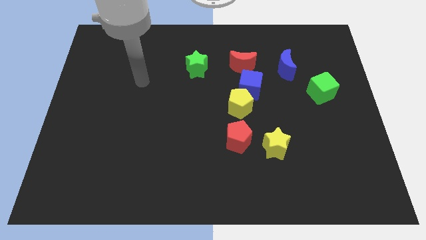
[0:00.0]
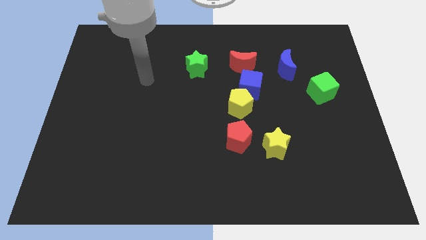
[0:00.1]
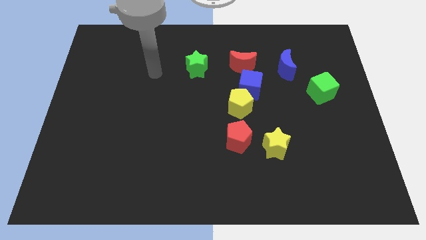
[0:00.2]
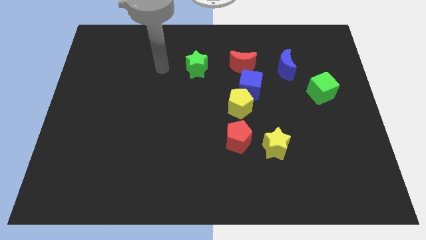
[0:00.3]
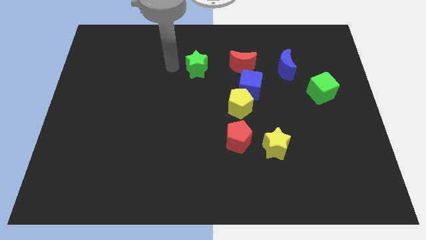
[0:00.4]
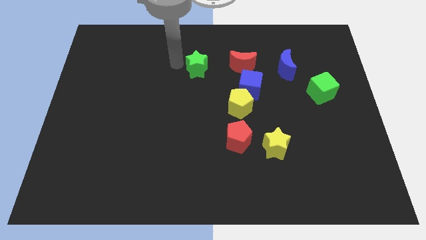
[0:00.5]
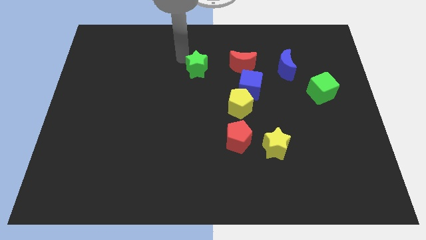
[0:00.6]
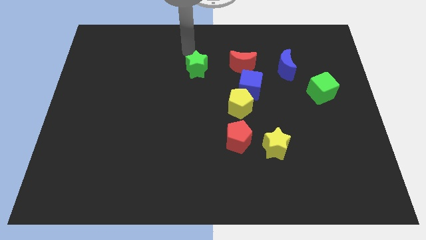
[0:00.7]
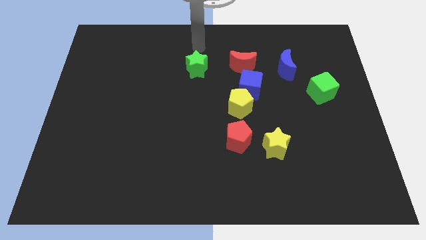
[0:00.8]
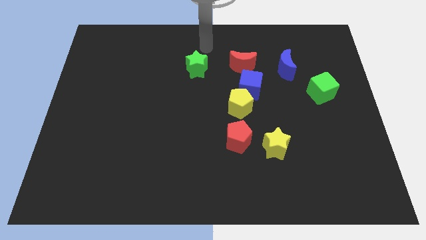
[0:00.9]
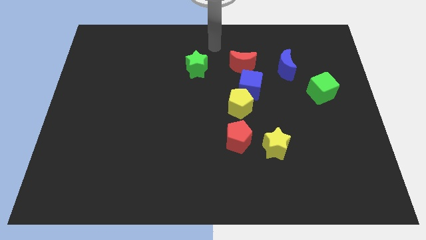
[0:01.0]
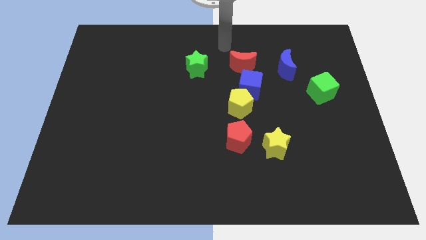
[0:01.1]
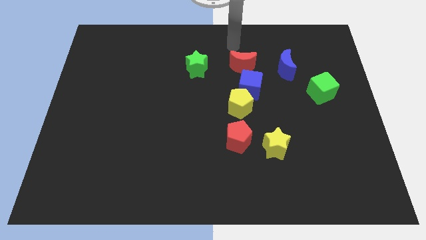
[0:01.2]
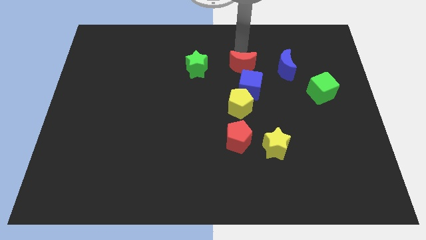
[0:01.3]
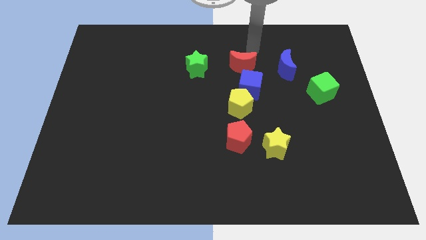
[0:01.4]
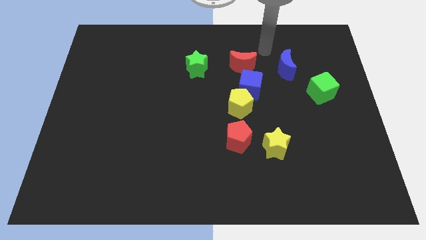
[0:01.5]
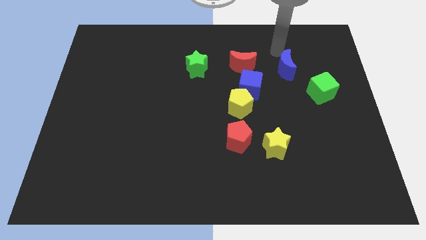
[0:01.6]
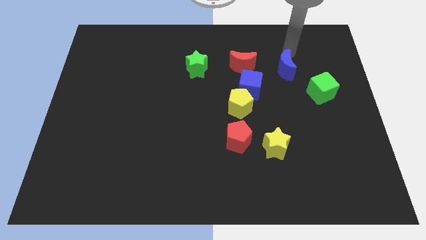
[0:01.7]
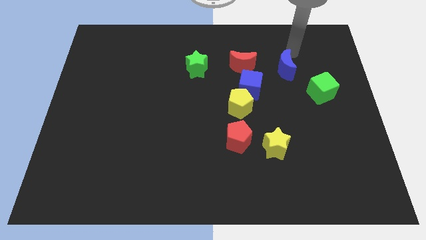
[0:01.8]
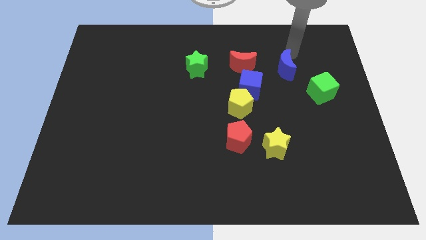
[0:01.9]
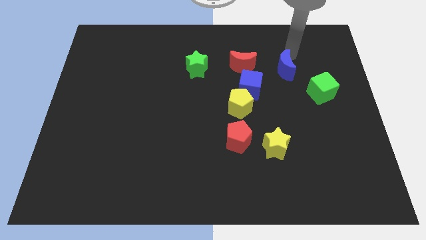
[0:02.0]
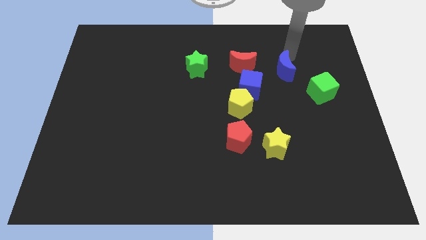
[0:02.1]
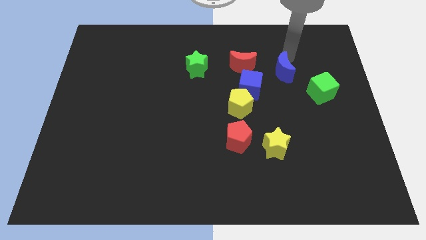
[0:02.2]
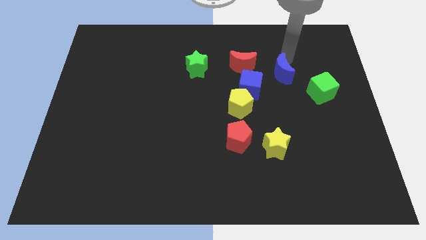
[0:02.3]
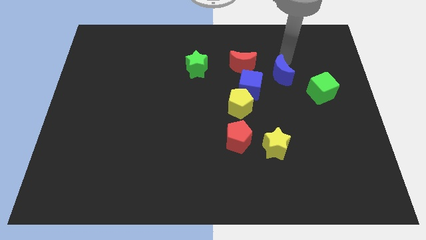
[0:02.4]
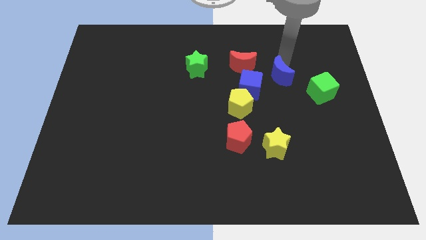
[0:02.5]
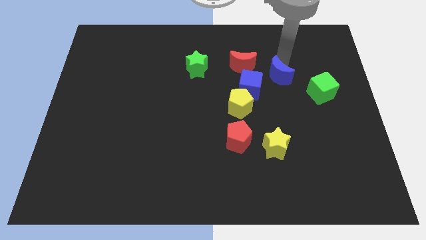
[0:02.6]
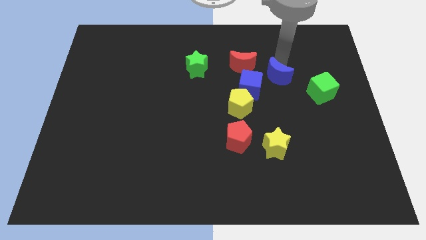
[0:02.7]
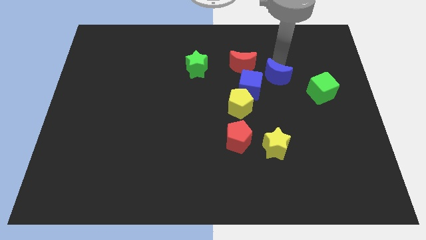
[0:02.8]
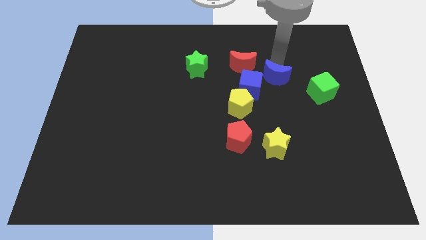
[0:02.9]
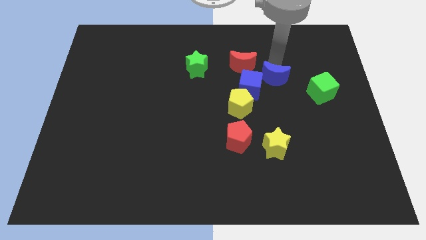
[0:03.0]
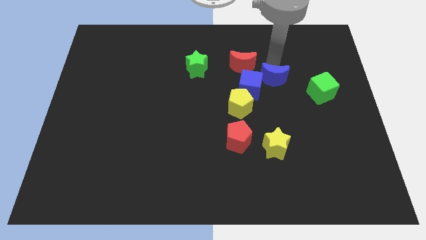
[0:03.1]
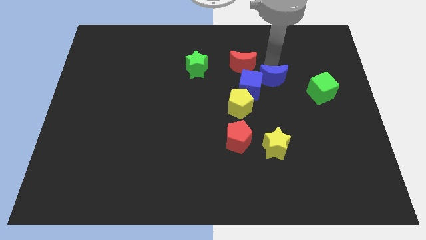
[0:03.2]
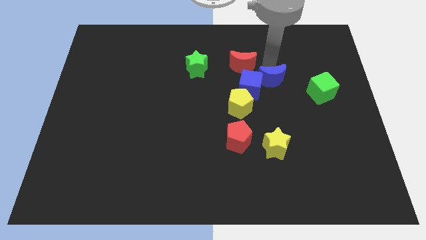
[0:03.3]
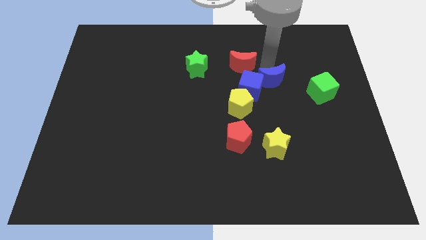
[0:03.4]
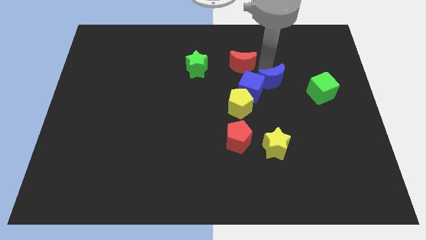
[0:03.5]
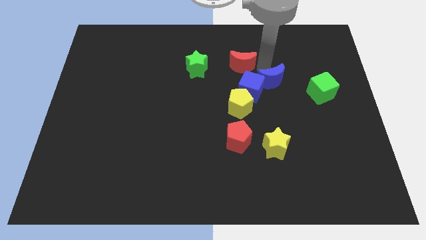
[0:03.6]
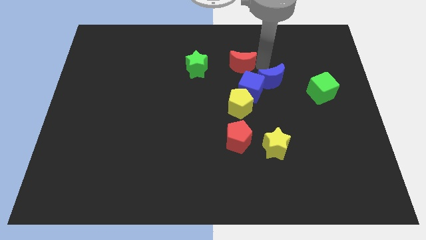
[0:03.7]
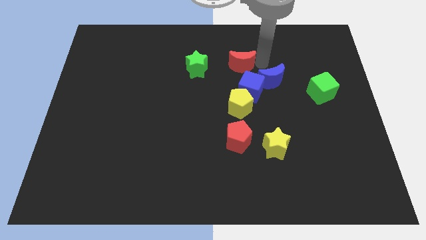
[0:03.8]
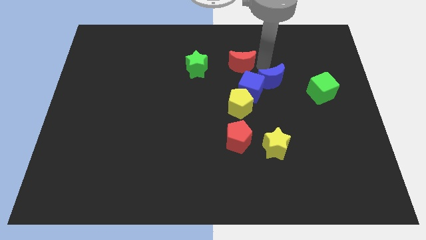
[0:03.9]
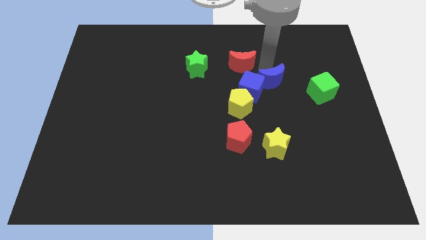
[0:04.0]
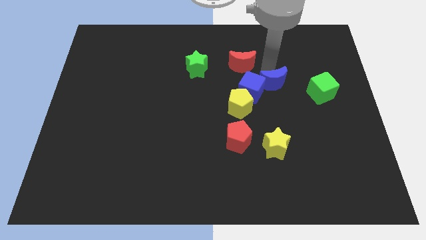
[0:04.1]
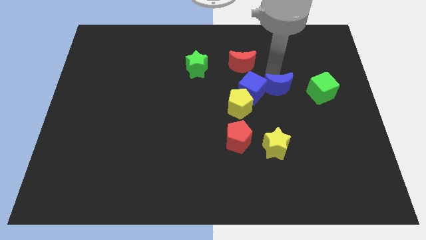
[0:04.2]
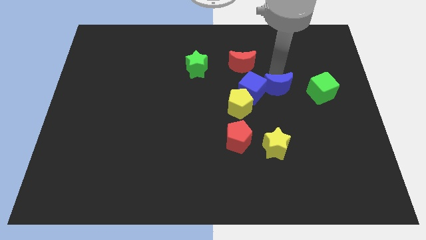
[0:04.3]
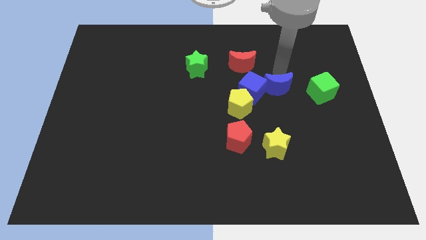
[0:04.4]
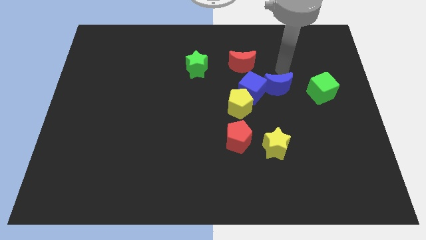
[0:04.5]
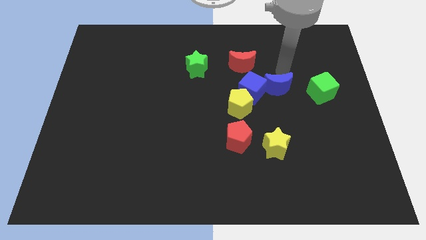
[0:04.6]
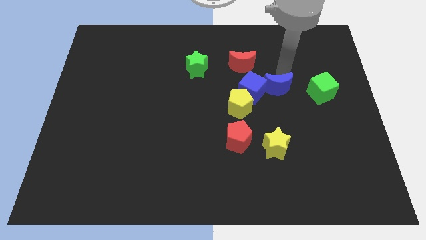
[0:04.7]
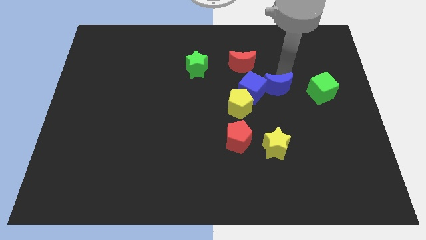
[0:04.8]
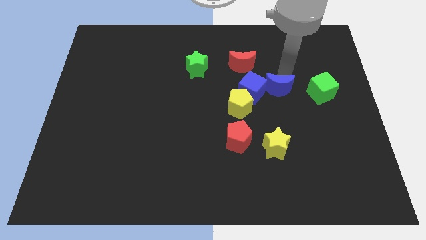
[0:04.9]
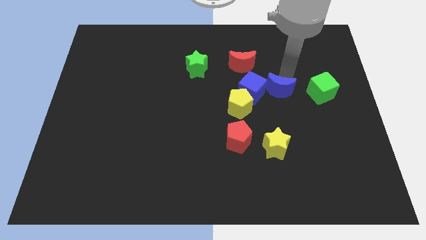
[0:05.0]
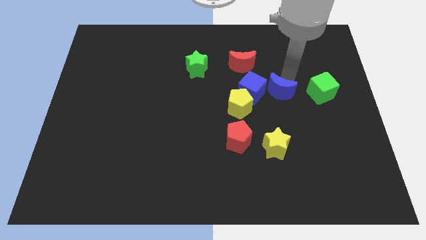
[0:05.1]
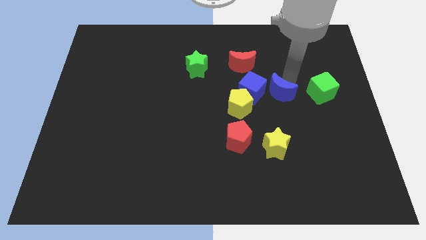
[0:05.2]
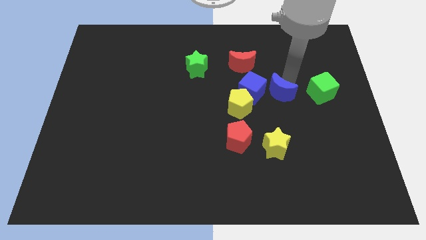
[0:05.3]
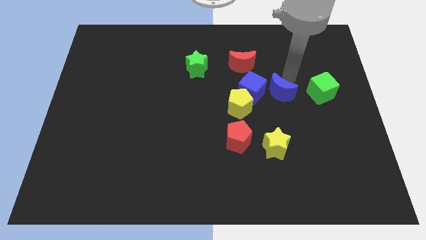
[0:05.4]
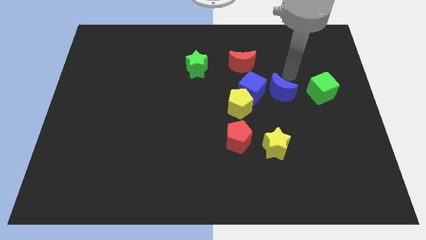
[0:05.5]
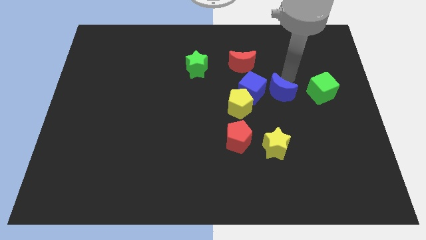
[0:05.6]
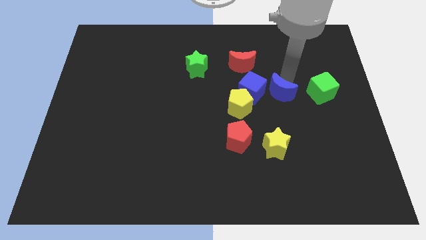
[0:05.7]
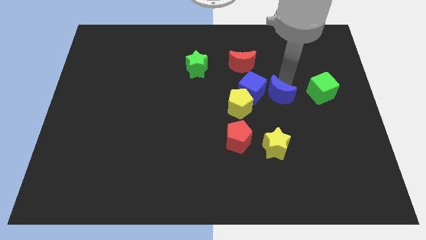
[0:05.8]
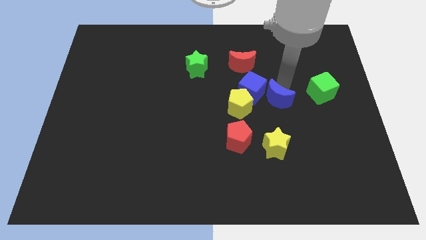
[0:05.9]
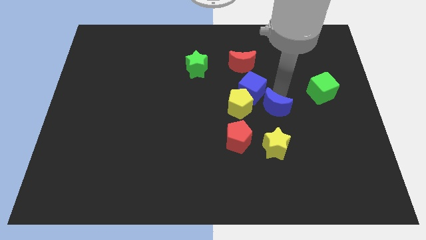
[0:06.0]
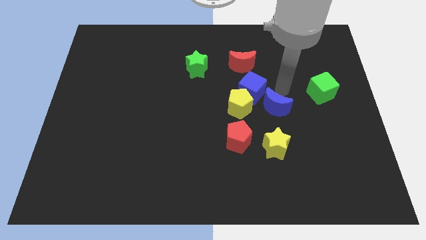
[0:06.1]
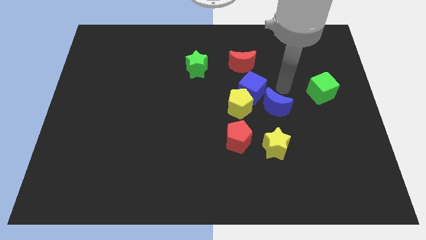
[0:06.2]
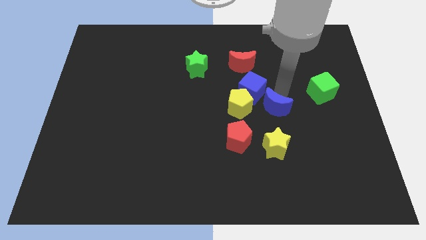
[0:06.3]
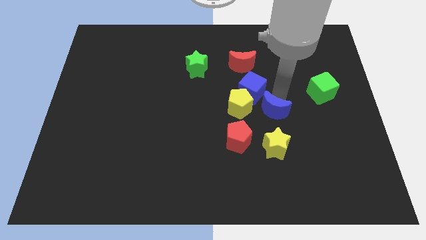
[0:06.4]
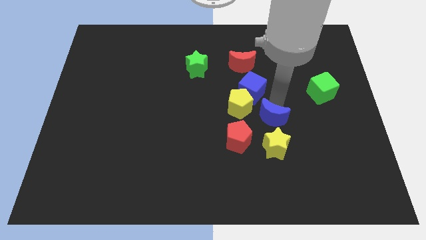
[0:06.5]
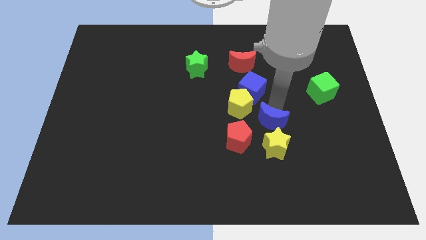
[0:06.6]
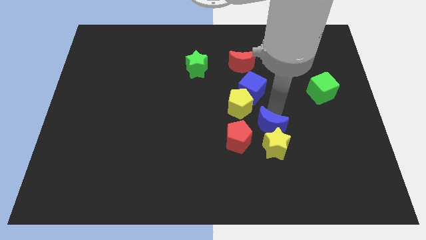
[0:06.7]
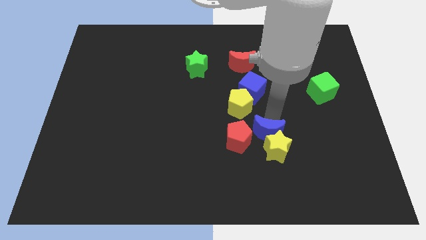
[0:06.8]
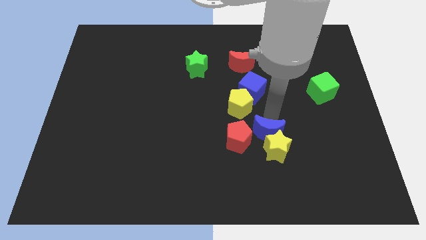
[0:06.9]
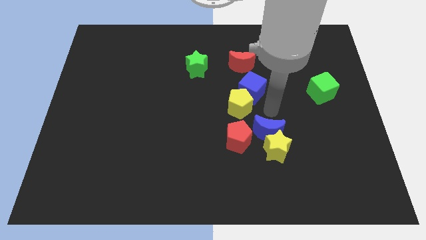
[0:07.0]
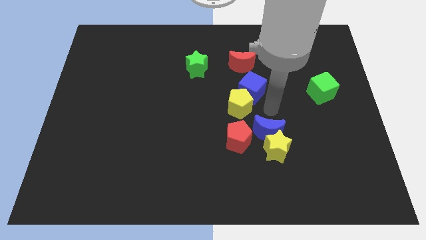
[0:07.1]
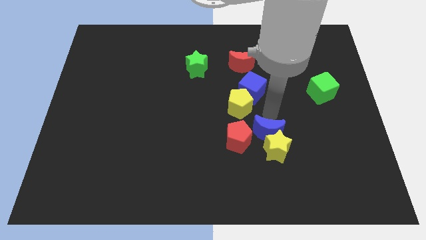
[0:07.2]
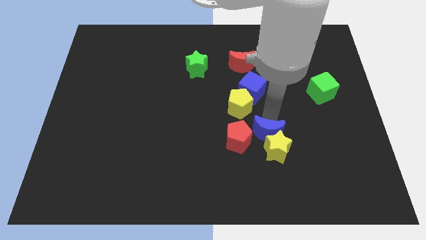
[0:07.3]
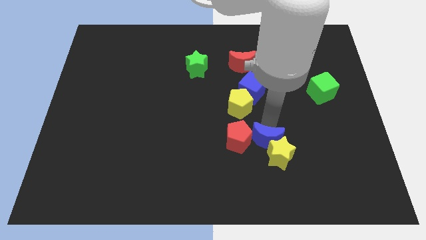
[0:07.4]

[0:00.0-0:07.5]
put the blue moon diagonally down and to the right of the red pentagon

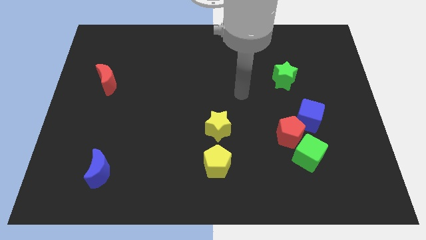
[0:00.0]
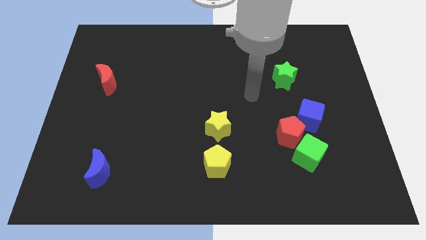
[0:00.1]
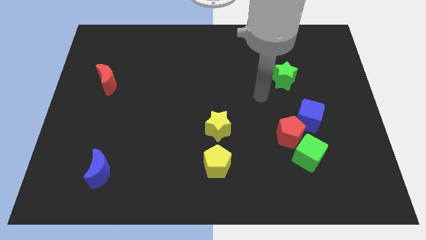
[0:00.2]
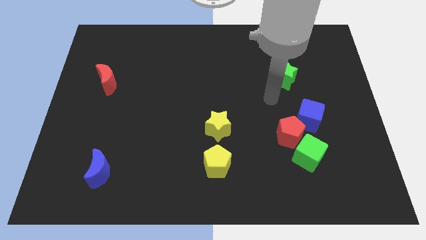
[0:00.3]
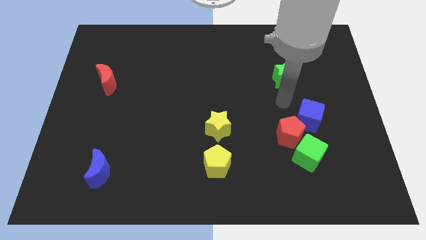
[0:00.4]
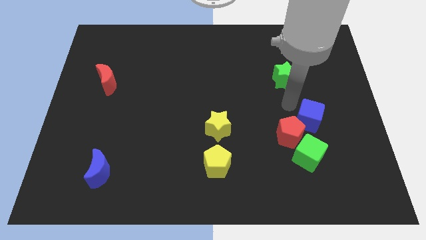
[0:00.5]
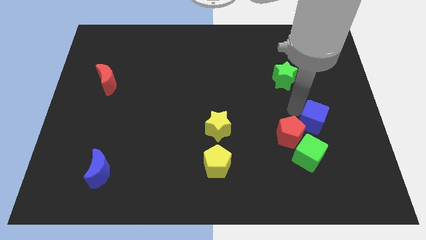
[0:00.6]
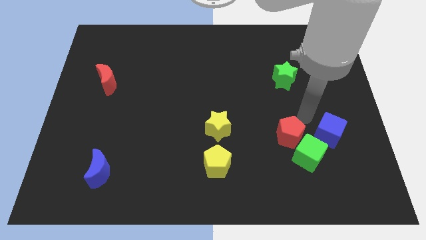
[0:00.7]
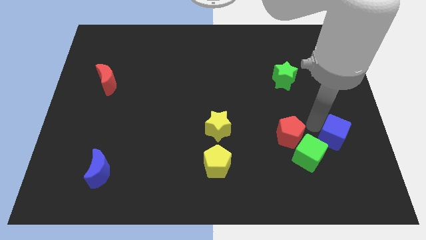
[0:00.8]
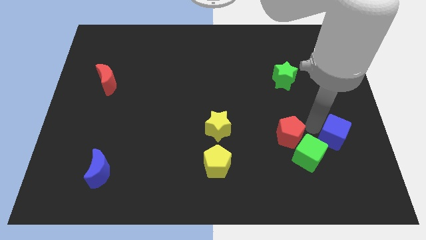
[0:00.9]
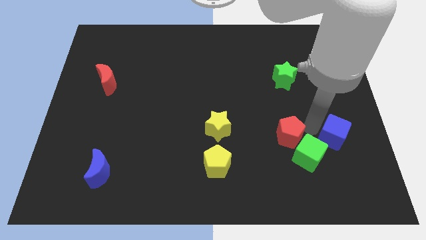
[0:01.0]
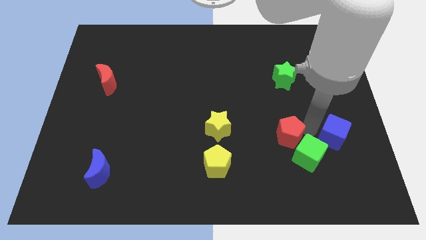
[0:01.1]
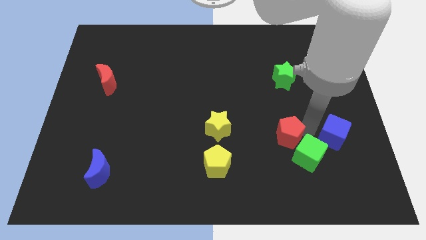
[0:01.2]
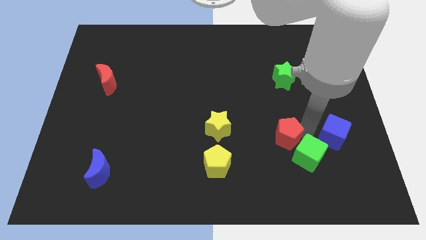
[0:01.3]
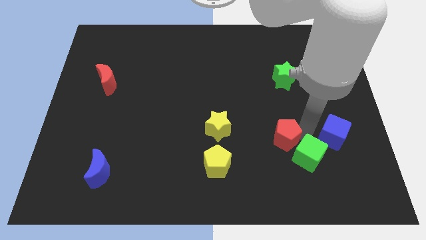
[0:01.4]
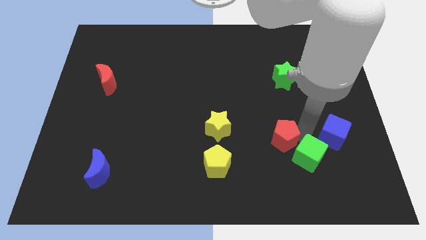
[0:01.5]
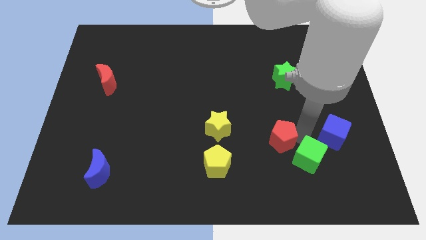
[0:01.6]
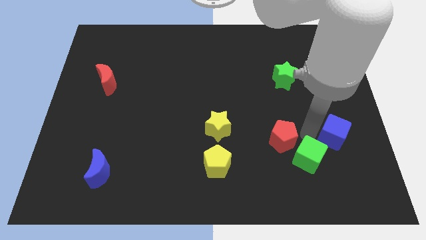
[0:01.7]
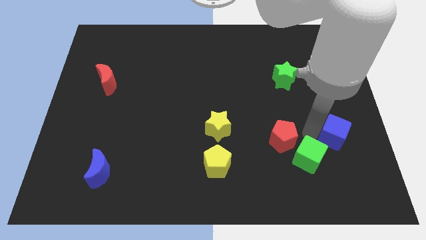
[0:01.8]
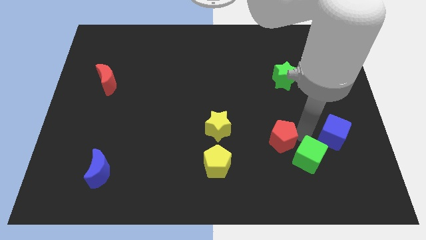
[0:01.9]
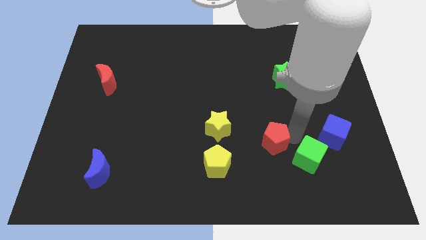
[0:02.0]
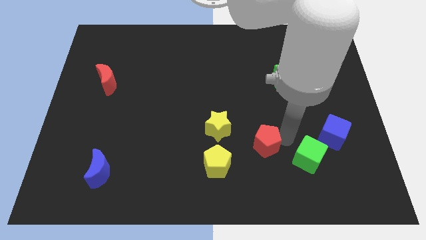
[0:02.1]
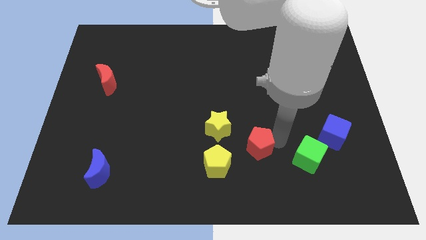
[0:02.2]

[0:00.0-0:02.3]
move the red pentagon to the bottom right side of the yellow star
